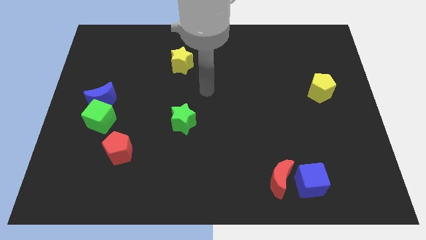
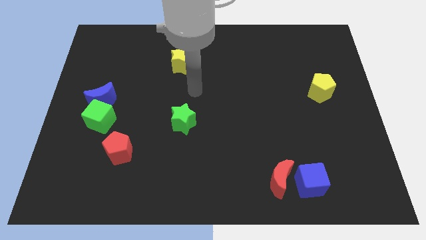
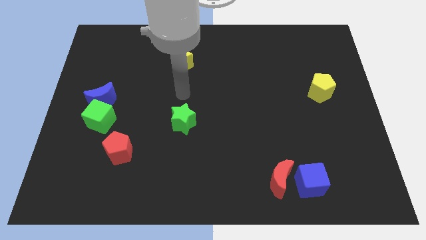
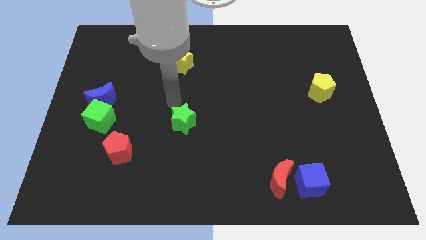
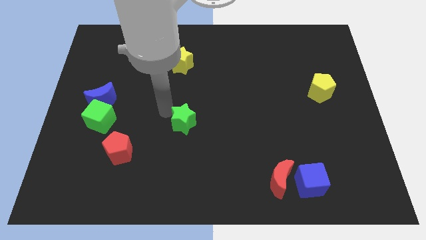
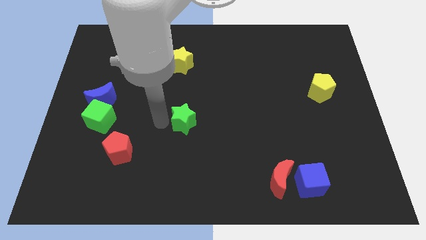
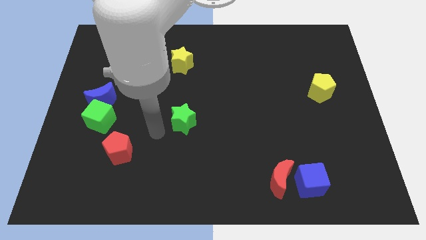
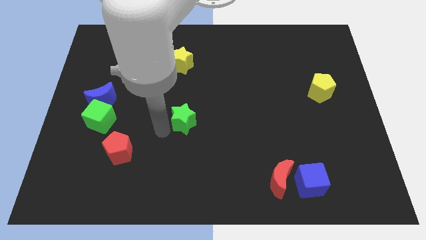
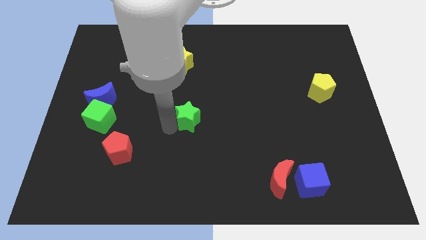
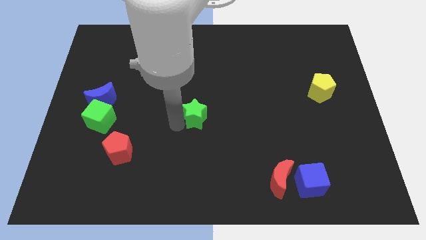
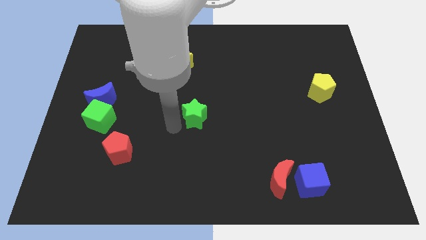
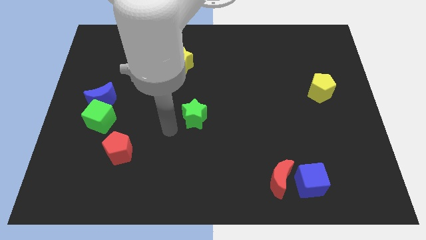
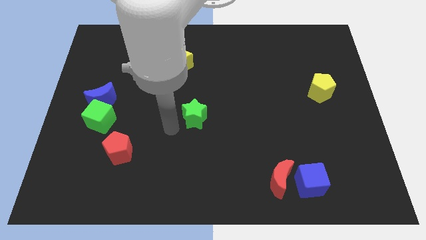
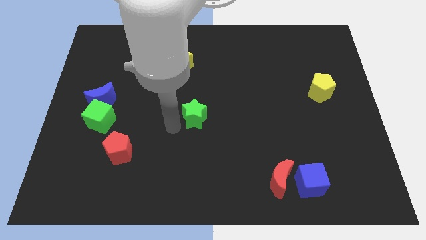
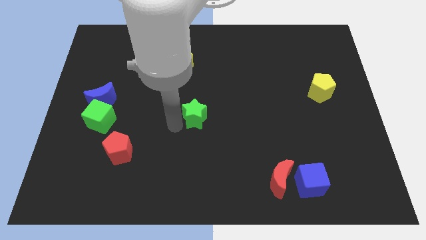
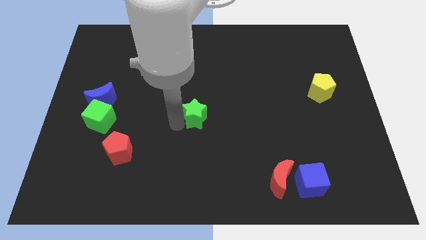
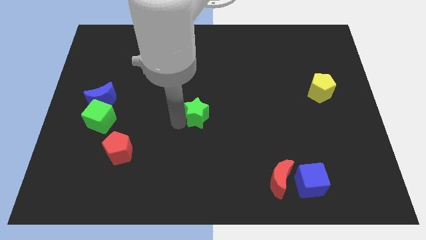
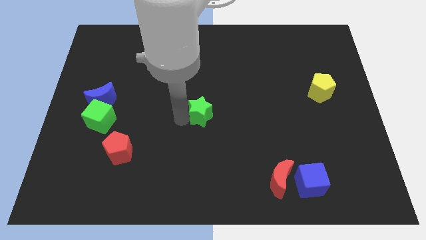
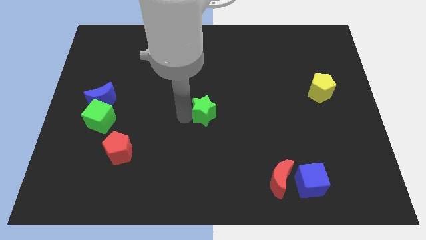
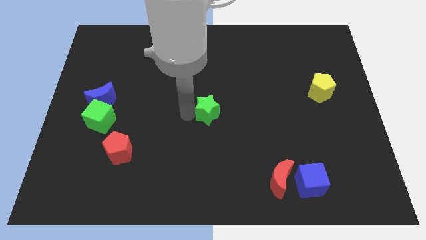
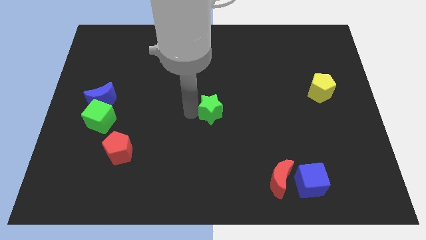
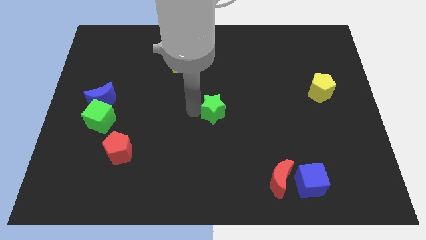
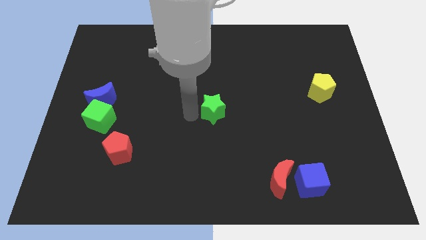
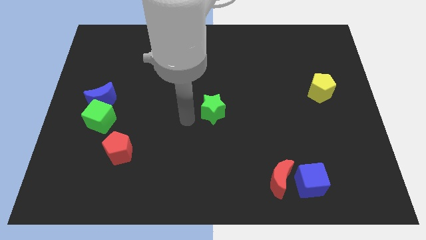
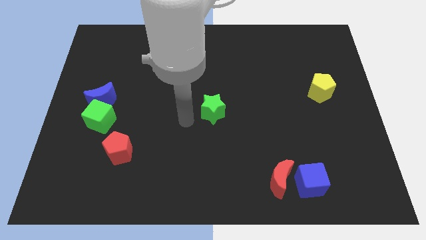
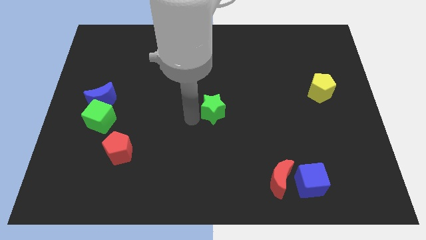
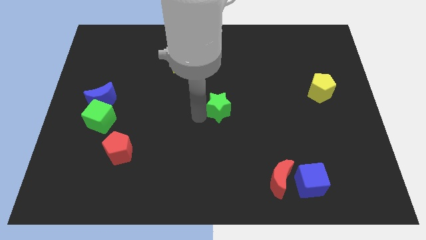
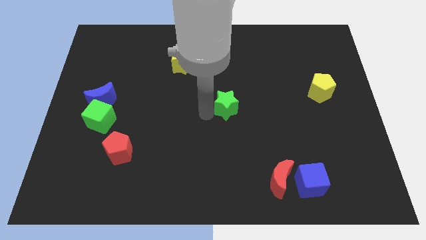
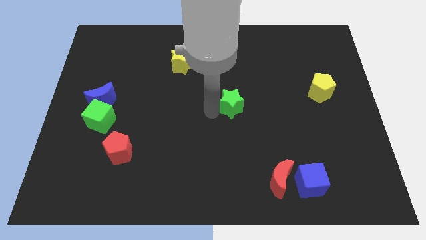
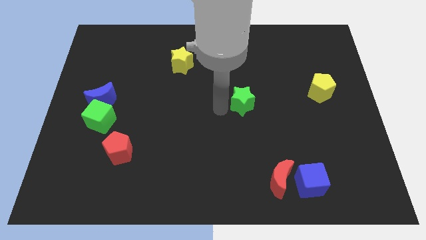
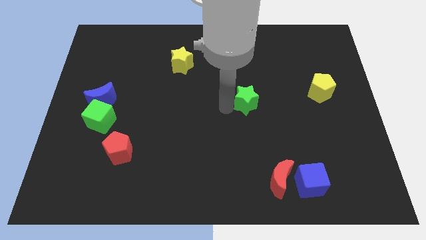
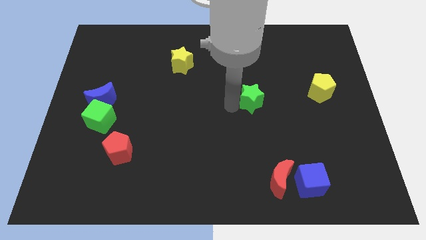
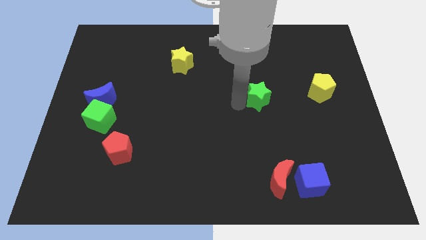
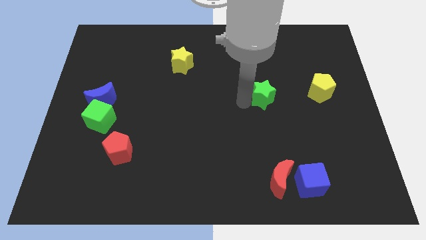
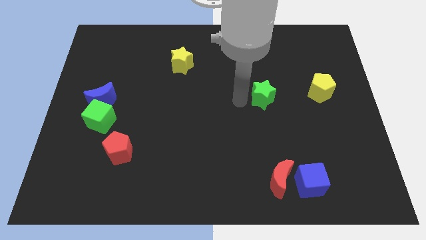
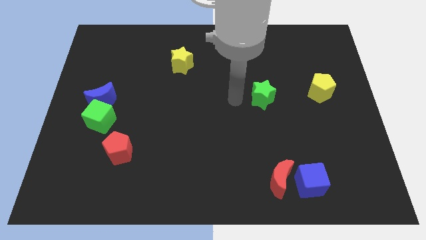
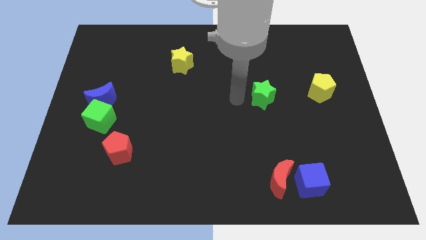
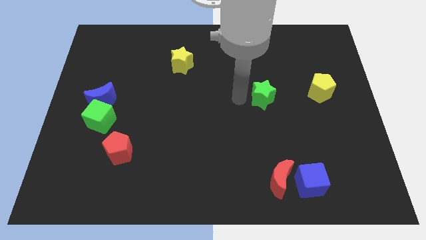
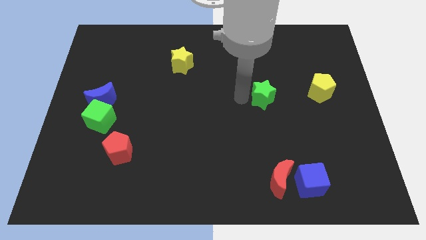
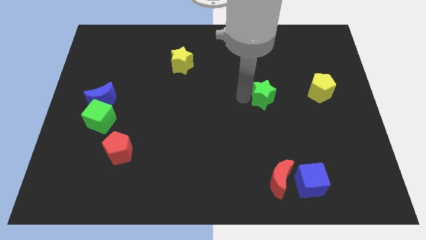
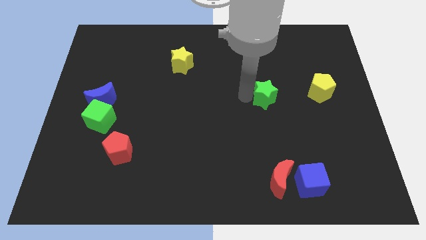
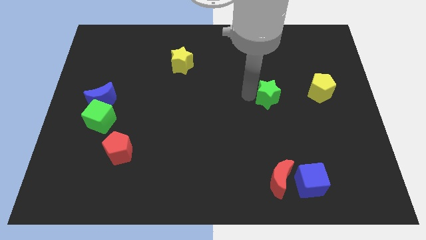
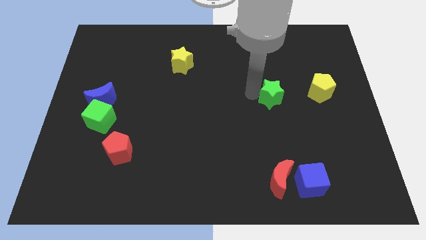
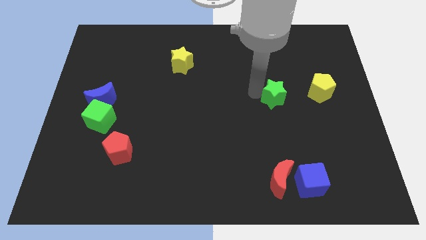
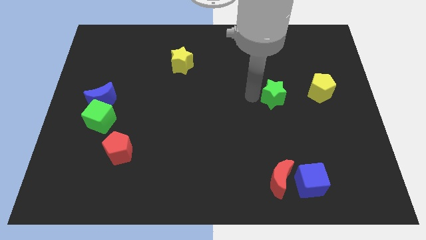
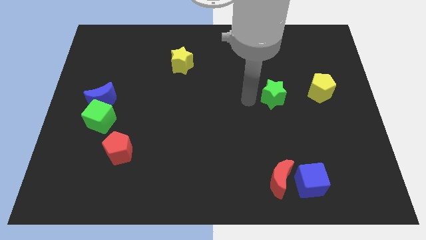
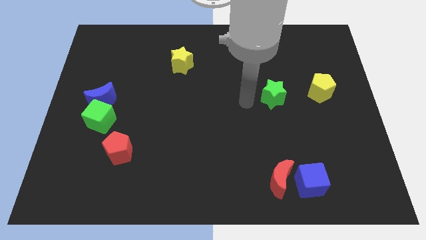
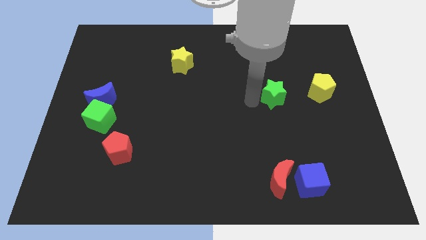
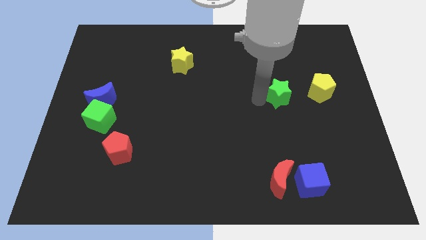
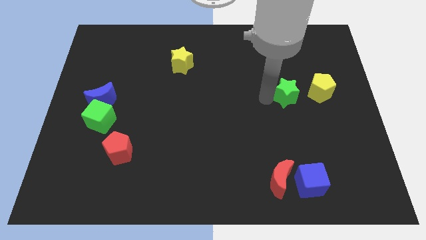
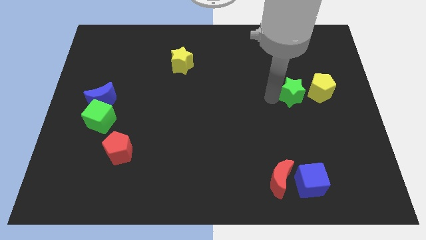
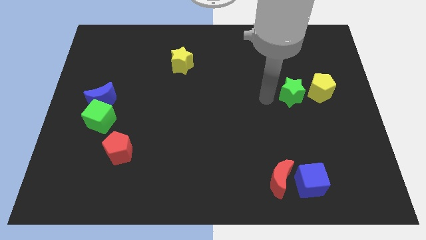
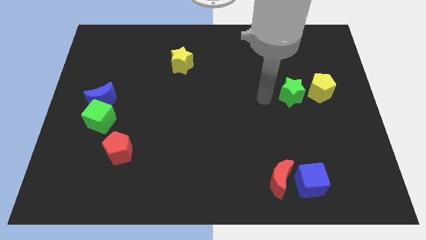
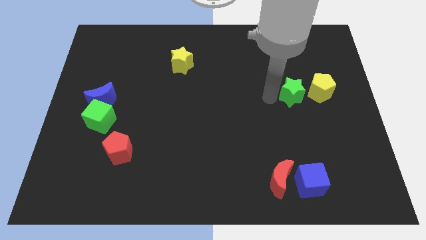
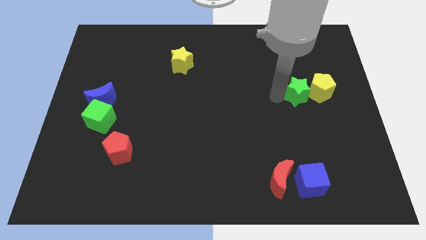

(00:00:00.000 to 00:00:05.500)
move the green star next to the yellow pentagon

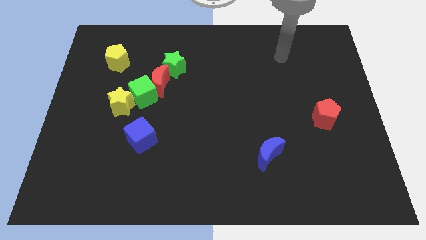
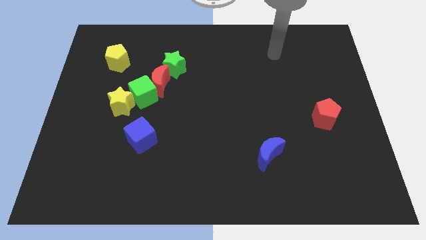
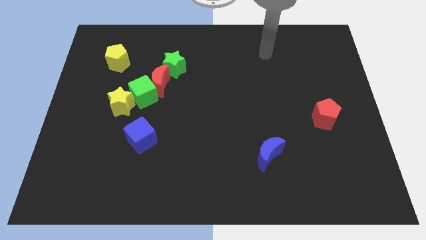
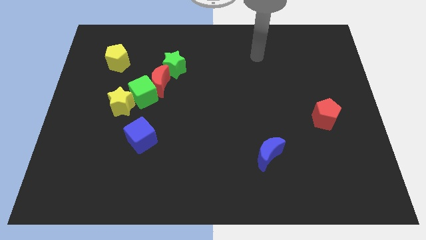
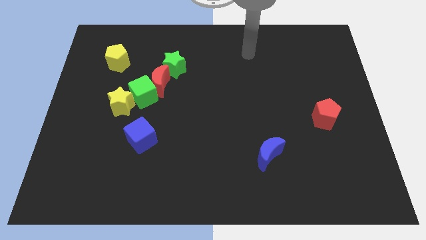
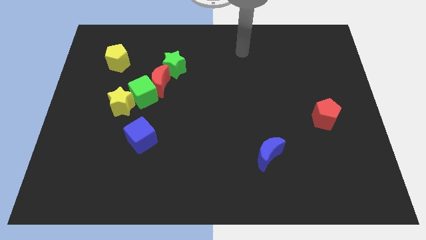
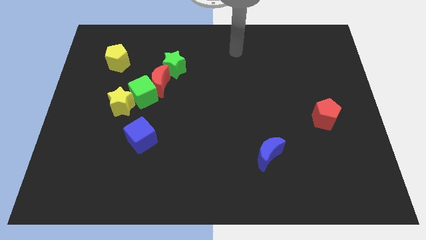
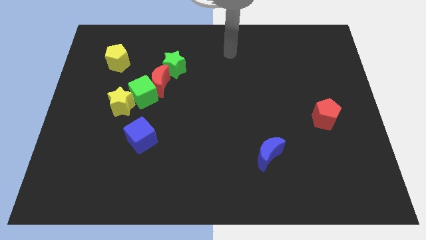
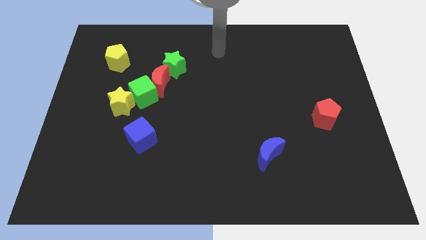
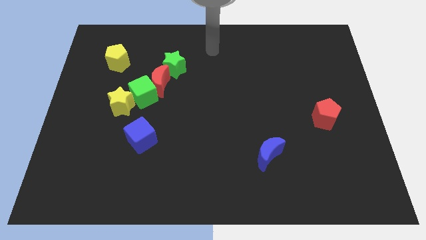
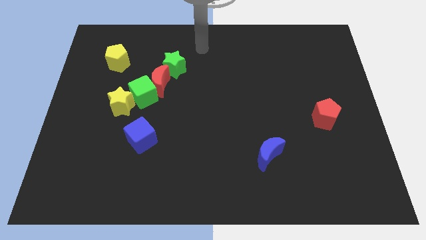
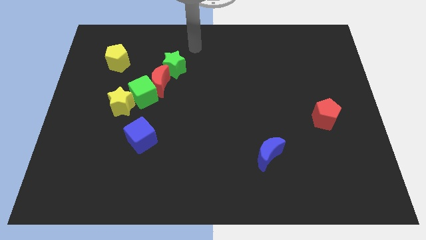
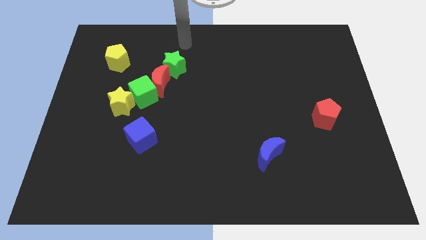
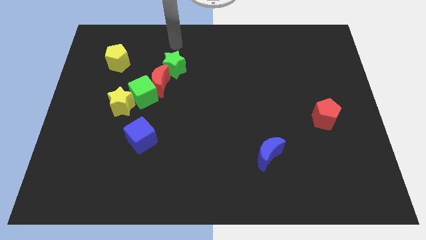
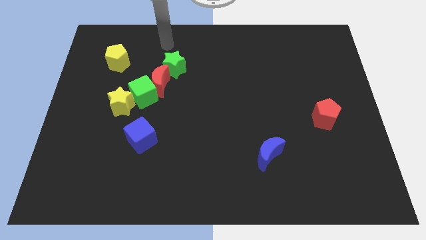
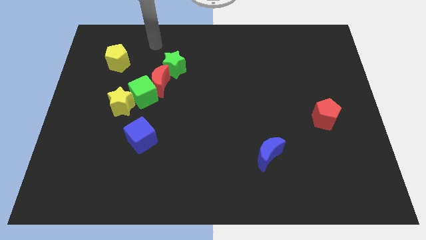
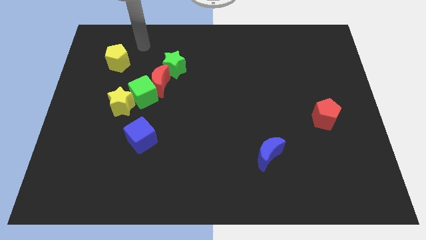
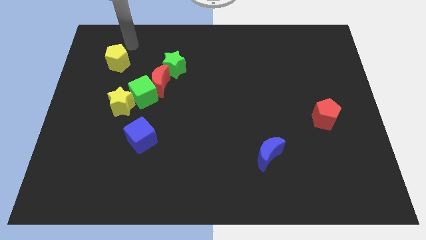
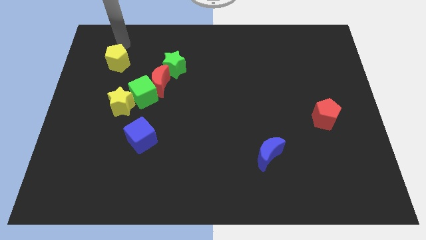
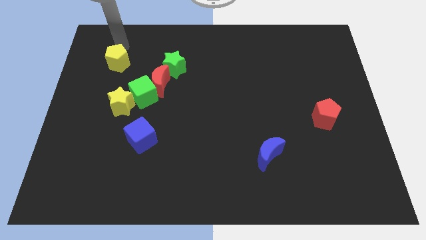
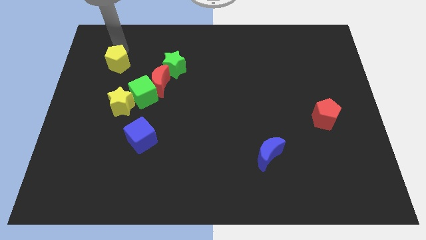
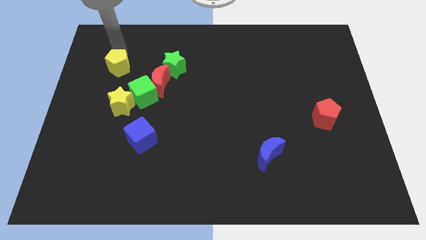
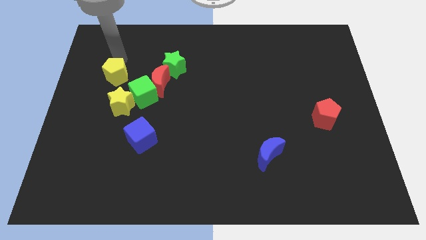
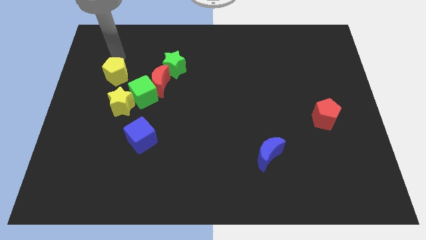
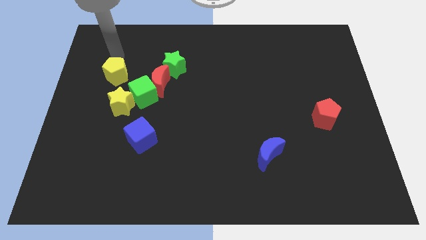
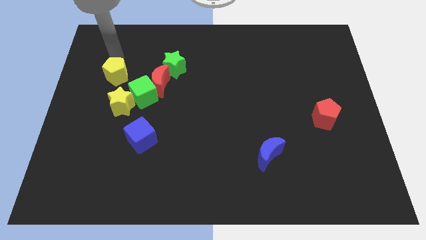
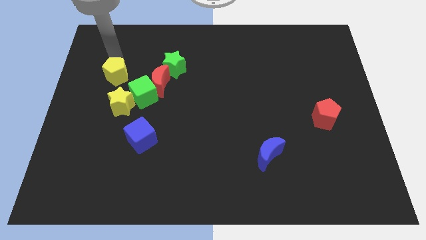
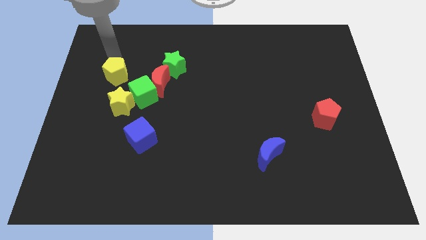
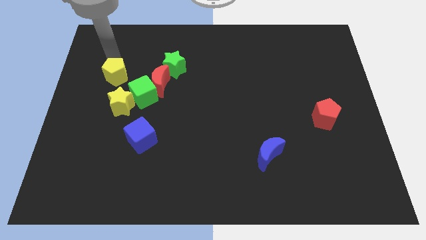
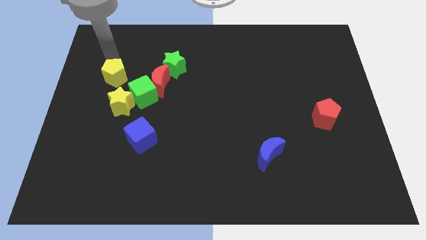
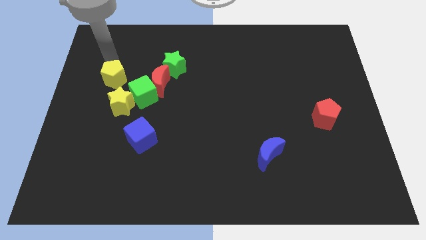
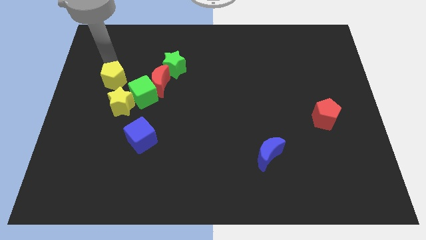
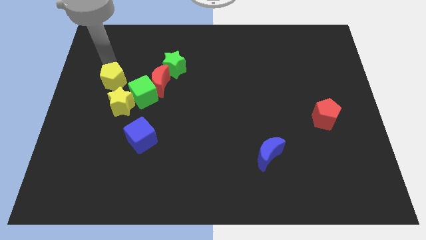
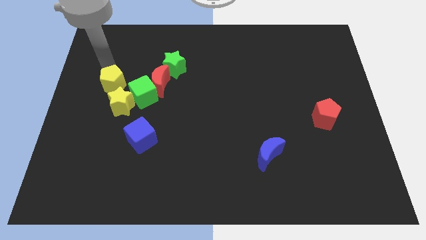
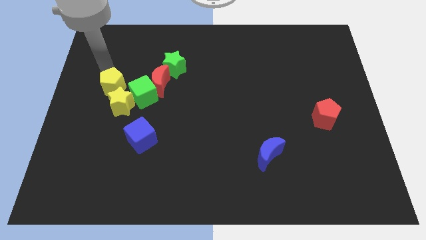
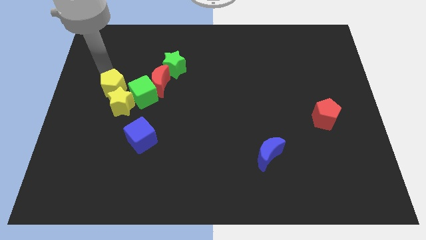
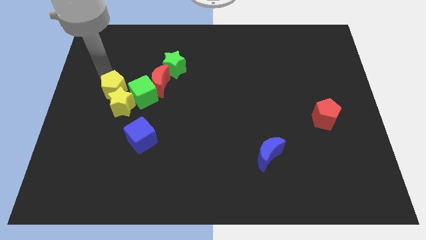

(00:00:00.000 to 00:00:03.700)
put the yellow pentagon close to the yellow star
